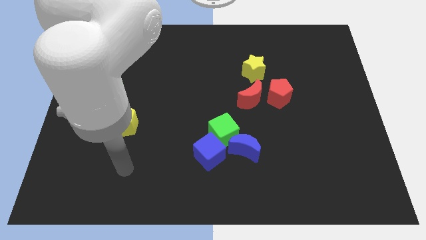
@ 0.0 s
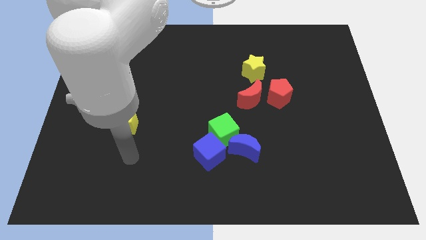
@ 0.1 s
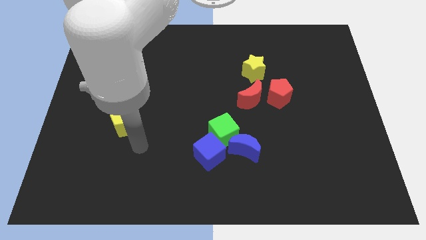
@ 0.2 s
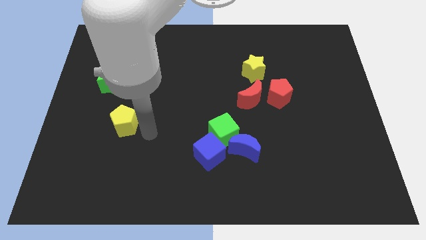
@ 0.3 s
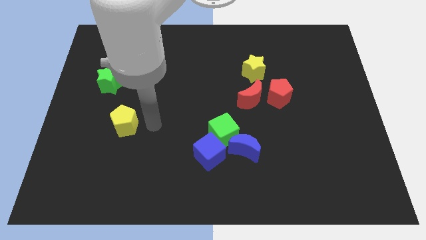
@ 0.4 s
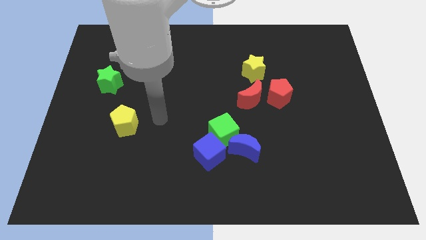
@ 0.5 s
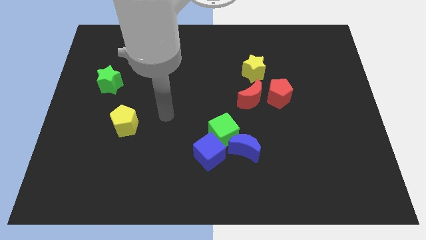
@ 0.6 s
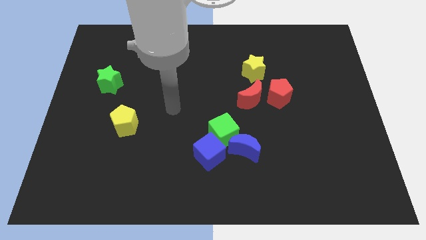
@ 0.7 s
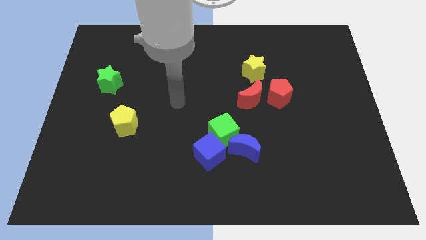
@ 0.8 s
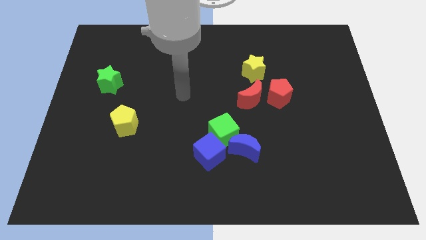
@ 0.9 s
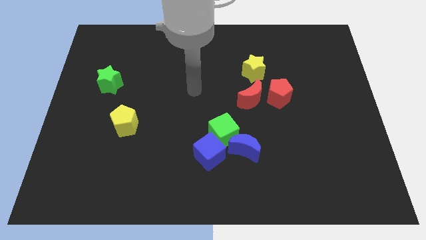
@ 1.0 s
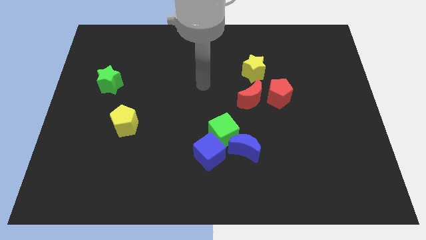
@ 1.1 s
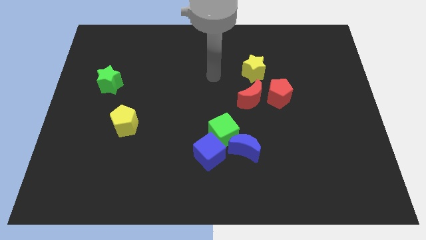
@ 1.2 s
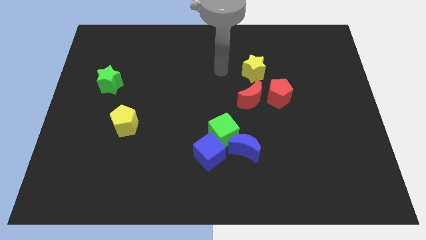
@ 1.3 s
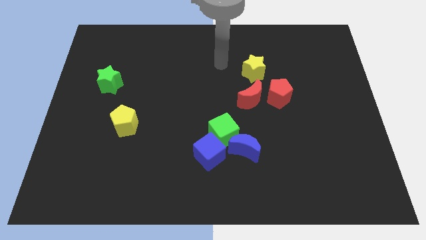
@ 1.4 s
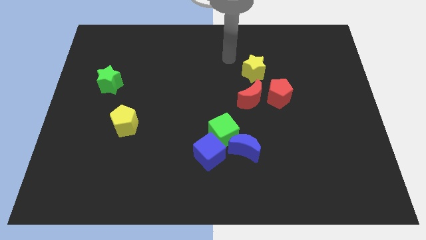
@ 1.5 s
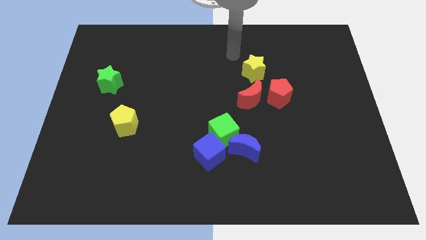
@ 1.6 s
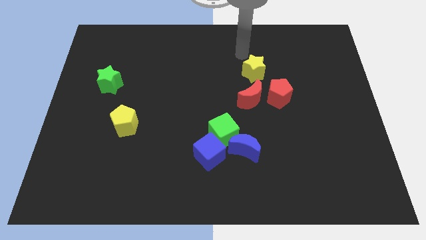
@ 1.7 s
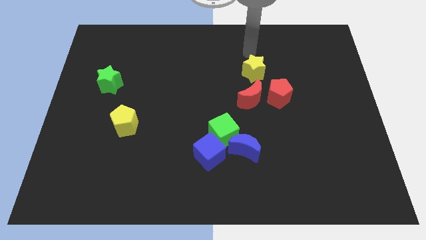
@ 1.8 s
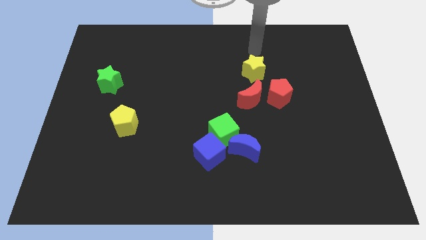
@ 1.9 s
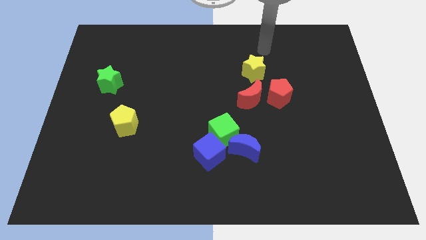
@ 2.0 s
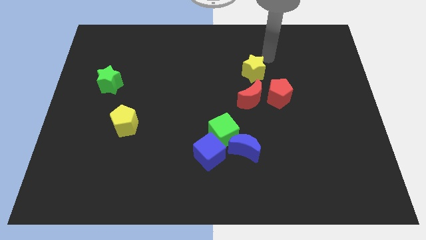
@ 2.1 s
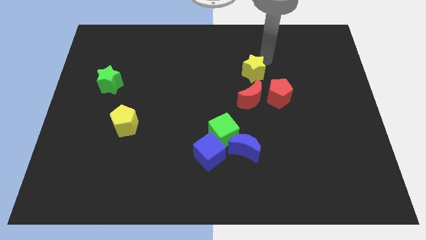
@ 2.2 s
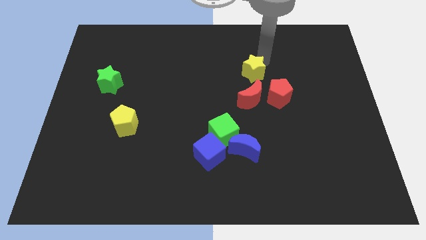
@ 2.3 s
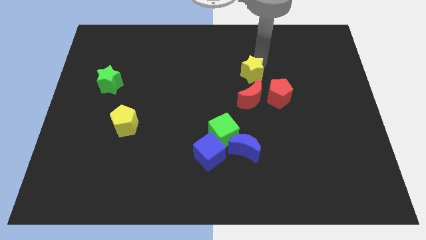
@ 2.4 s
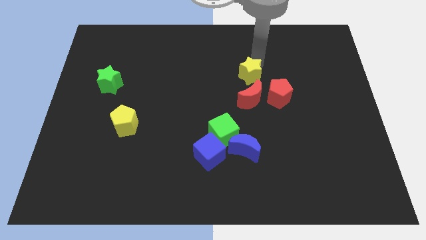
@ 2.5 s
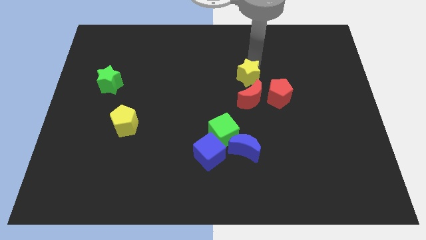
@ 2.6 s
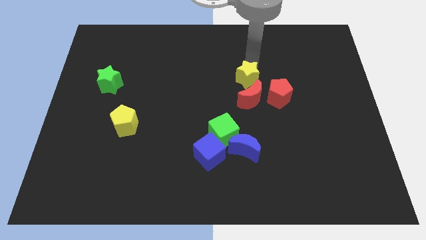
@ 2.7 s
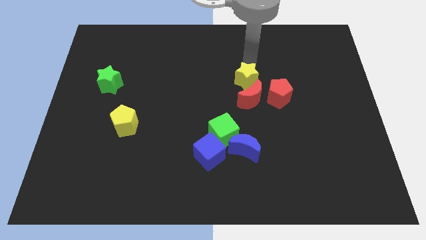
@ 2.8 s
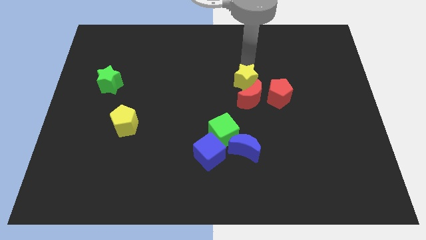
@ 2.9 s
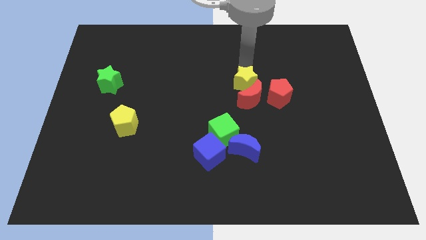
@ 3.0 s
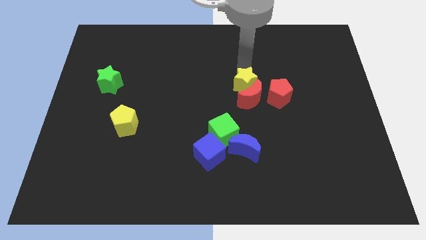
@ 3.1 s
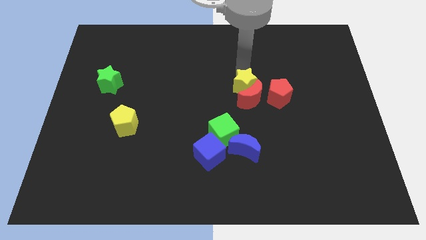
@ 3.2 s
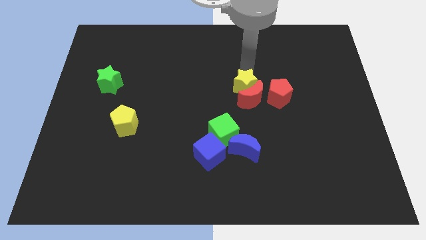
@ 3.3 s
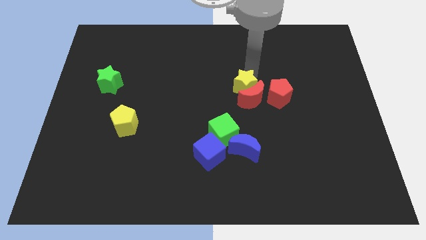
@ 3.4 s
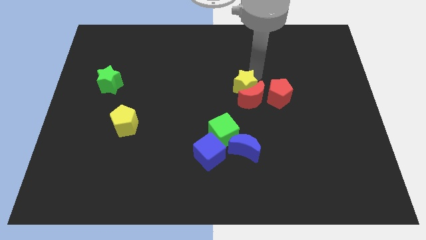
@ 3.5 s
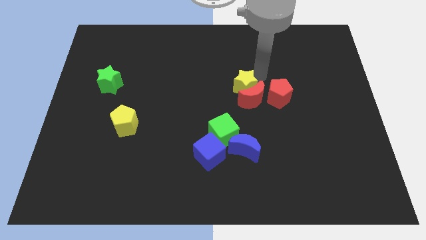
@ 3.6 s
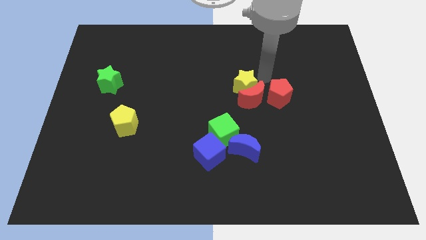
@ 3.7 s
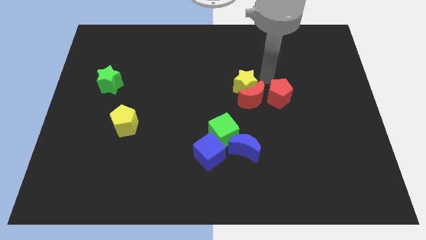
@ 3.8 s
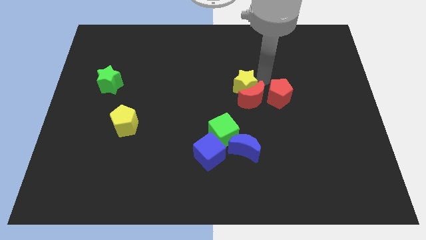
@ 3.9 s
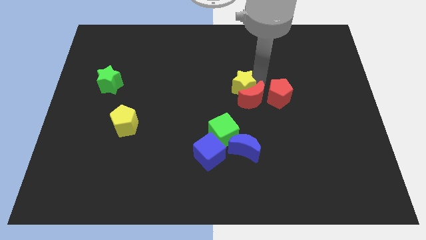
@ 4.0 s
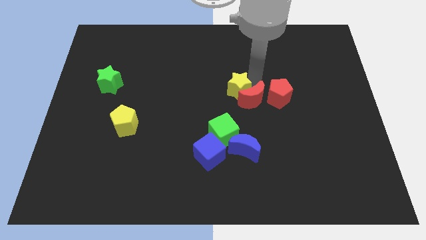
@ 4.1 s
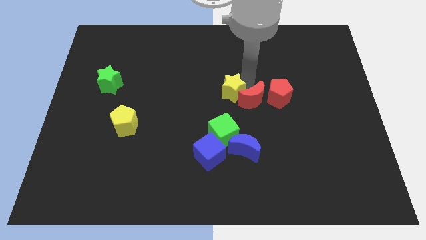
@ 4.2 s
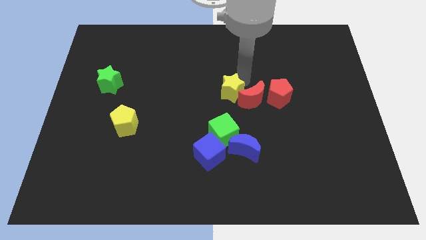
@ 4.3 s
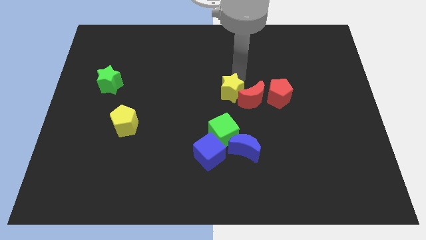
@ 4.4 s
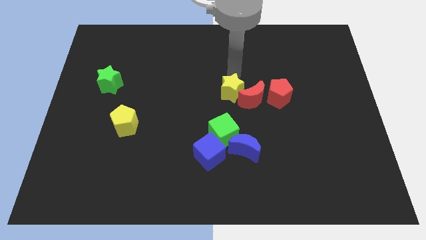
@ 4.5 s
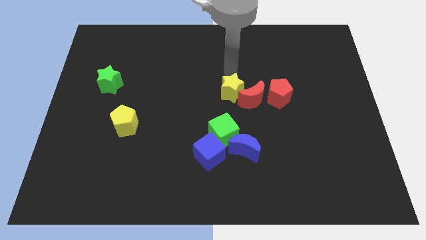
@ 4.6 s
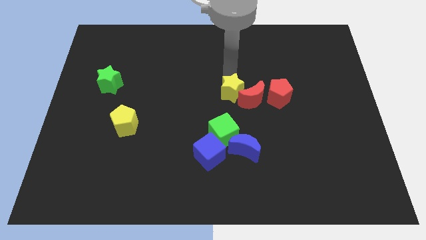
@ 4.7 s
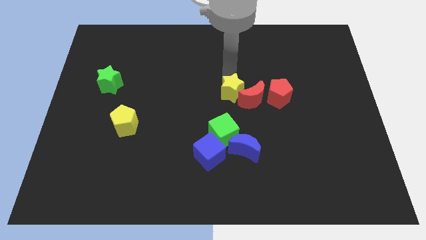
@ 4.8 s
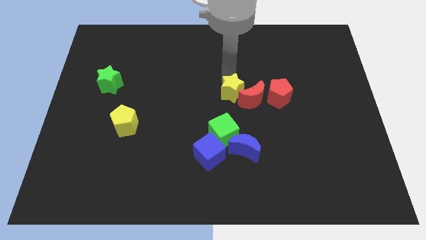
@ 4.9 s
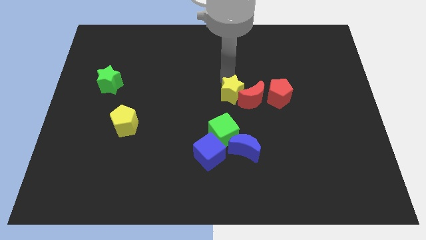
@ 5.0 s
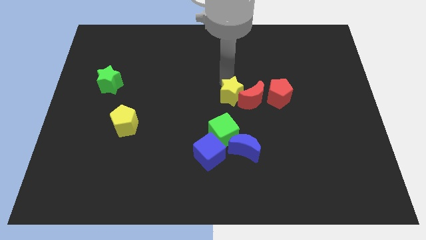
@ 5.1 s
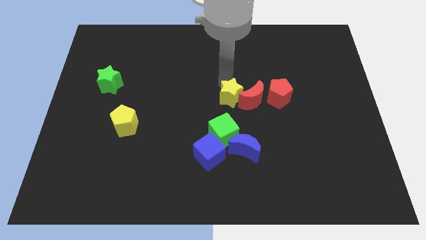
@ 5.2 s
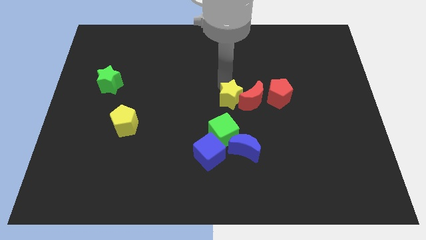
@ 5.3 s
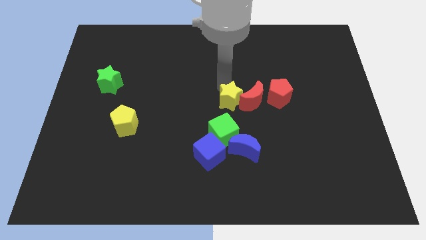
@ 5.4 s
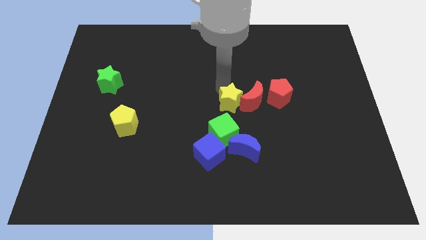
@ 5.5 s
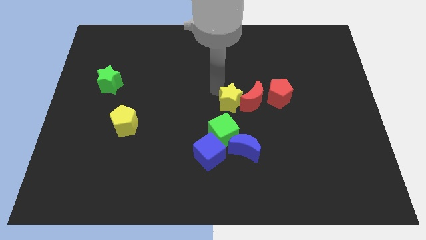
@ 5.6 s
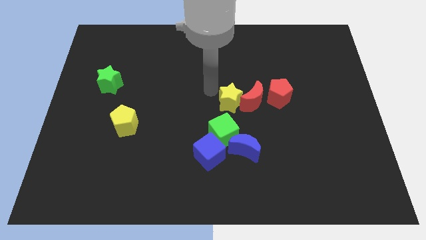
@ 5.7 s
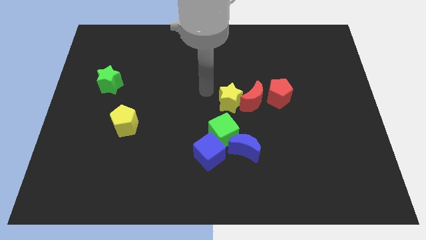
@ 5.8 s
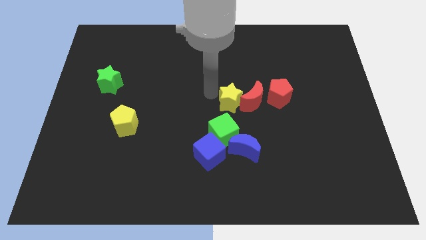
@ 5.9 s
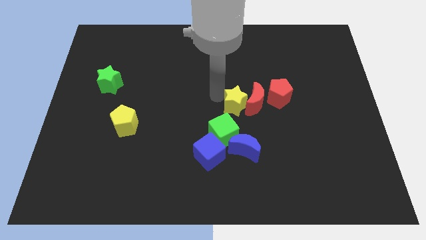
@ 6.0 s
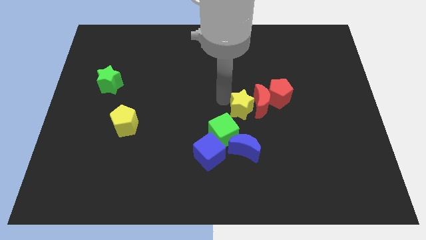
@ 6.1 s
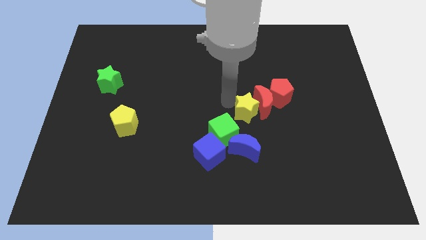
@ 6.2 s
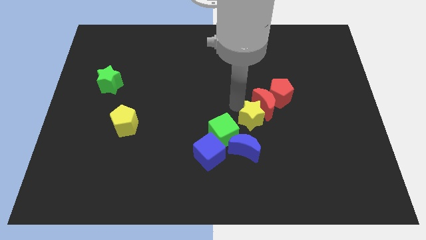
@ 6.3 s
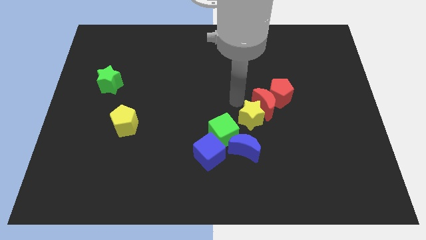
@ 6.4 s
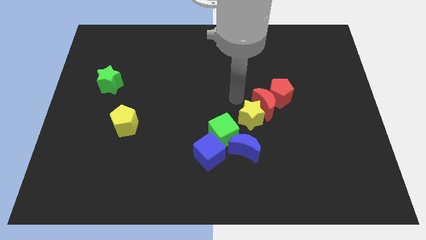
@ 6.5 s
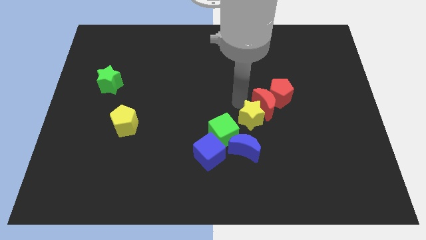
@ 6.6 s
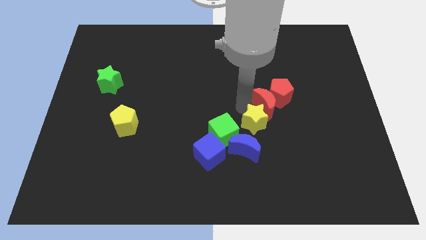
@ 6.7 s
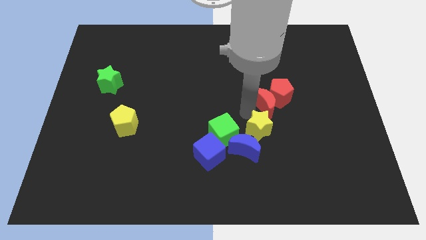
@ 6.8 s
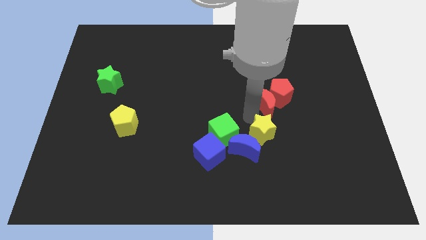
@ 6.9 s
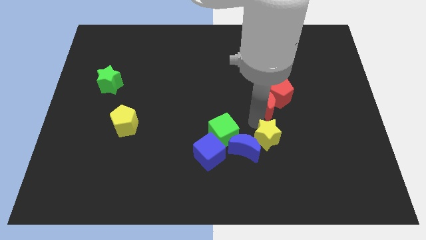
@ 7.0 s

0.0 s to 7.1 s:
slide the yellow star to the right side of the blue cube
